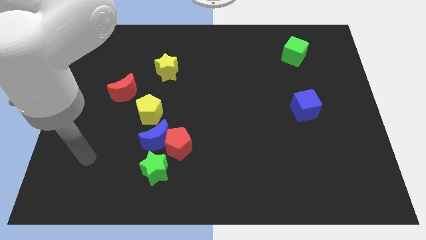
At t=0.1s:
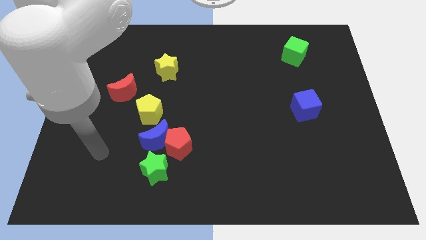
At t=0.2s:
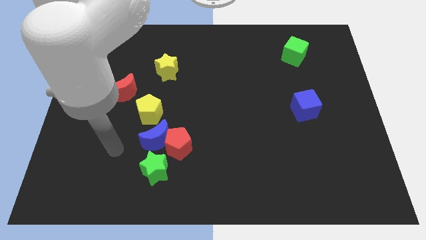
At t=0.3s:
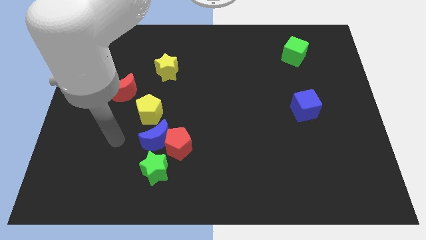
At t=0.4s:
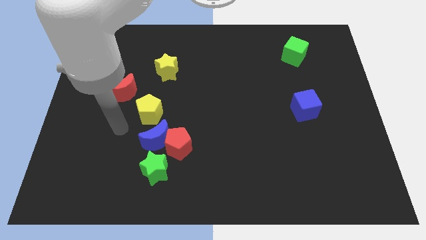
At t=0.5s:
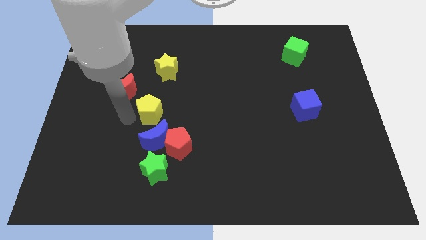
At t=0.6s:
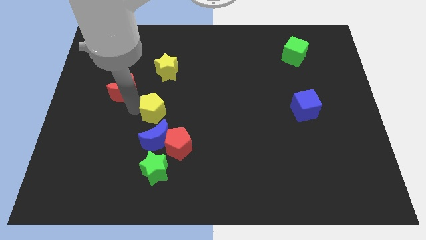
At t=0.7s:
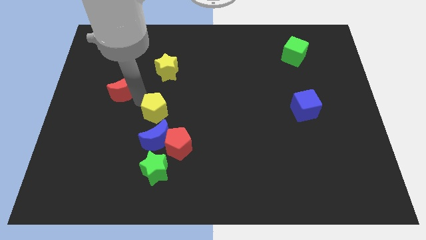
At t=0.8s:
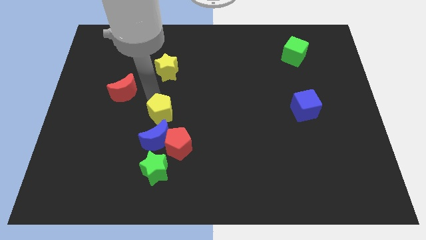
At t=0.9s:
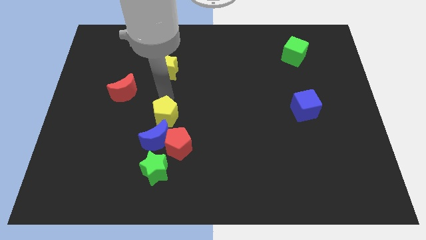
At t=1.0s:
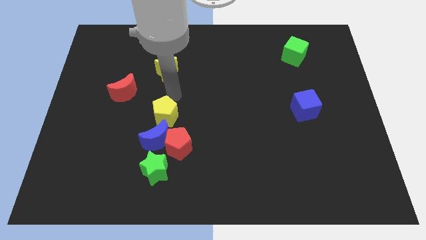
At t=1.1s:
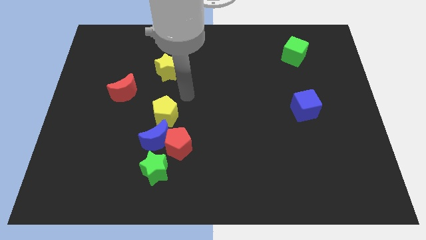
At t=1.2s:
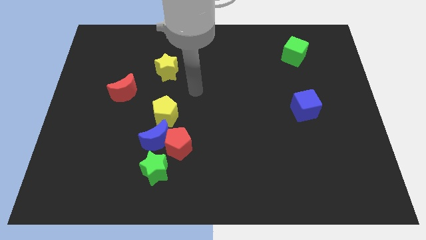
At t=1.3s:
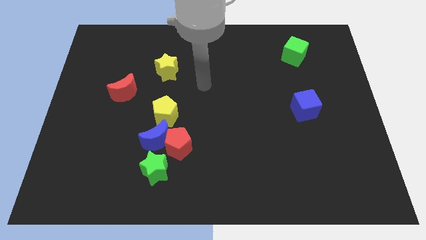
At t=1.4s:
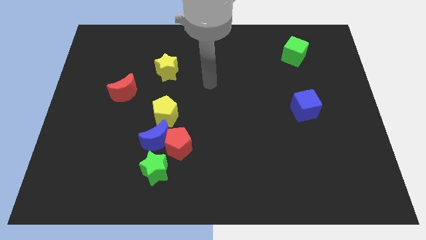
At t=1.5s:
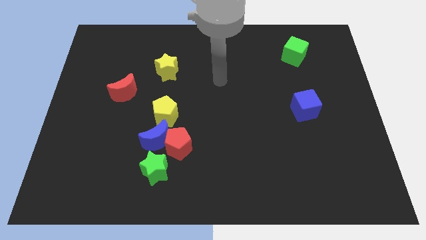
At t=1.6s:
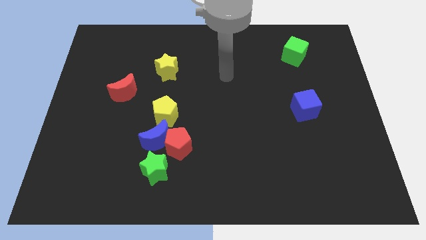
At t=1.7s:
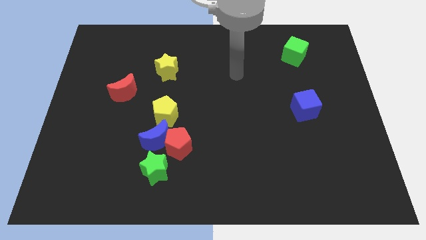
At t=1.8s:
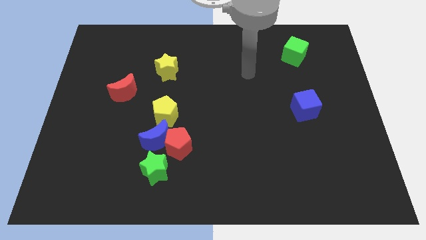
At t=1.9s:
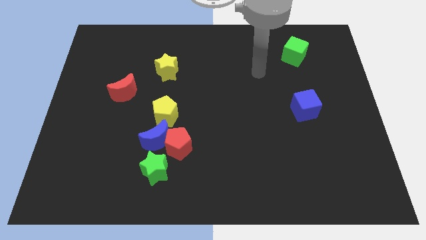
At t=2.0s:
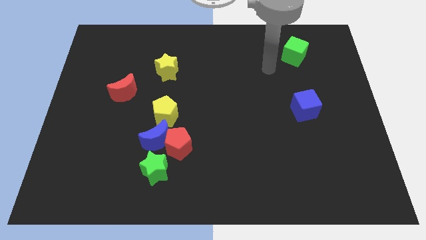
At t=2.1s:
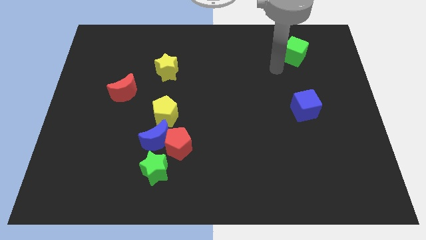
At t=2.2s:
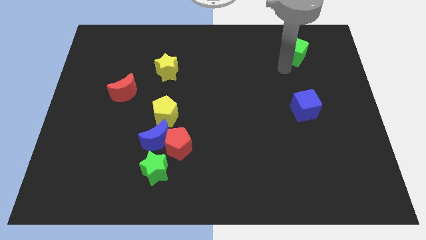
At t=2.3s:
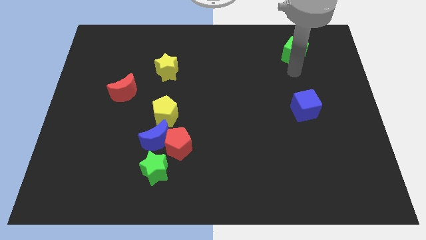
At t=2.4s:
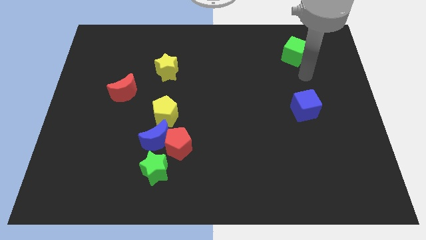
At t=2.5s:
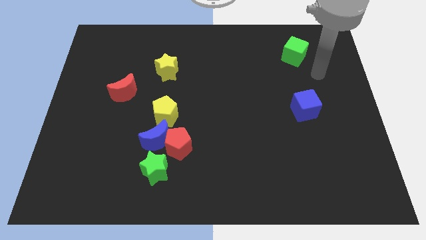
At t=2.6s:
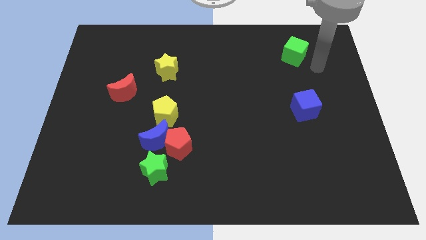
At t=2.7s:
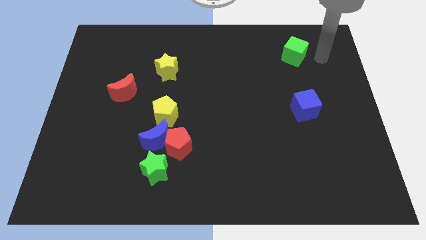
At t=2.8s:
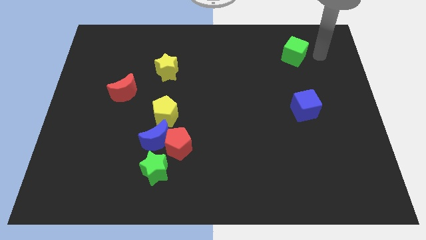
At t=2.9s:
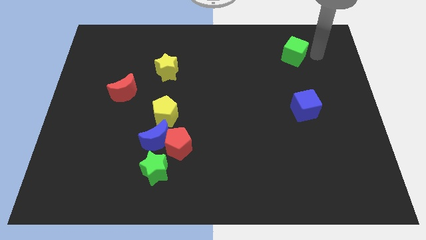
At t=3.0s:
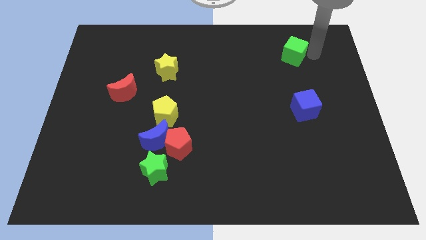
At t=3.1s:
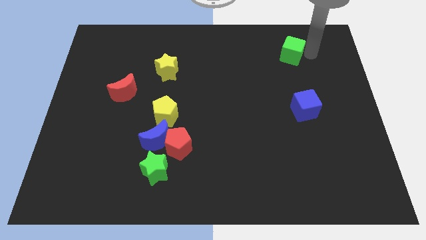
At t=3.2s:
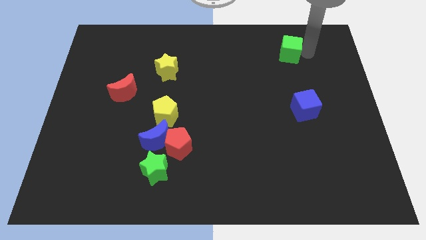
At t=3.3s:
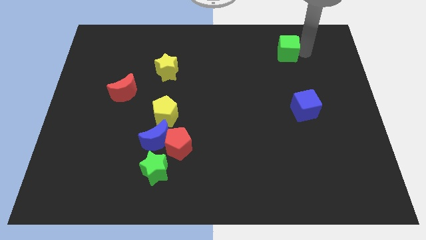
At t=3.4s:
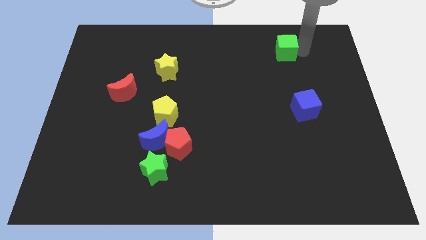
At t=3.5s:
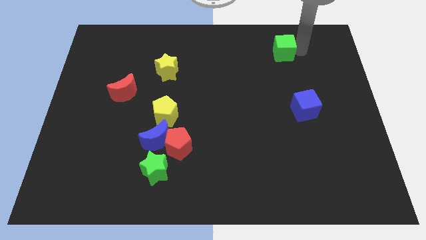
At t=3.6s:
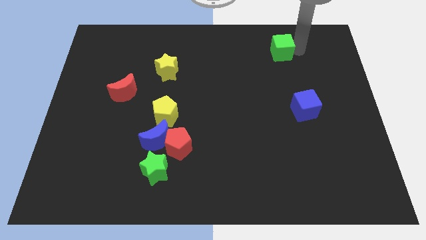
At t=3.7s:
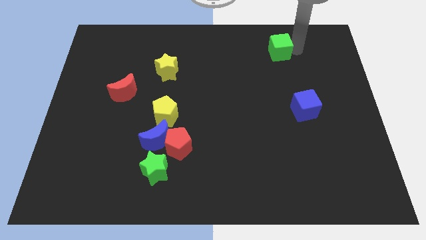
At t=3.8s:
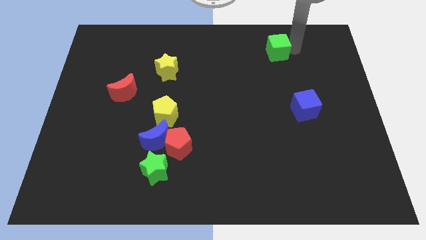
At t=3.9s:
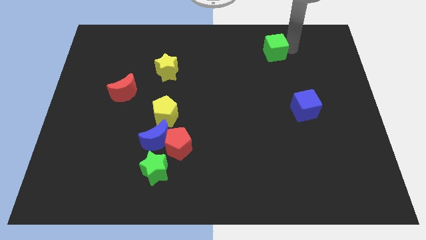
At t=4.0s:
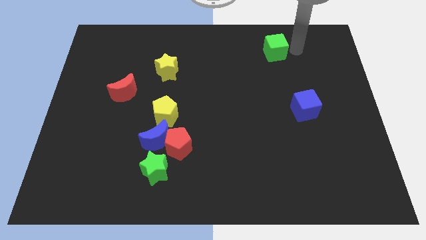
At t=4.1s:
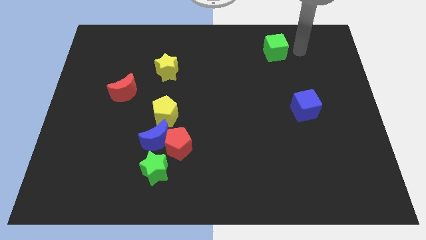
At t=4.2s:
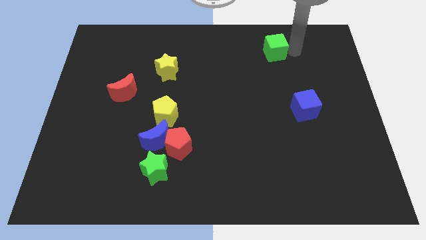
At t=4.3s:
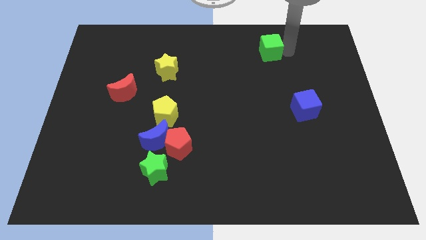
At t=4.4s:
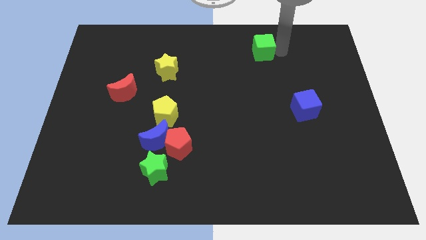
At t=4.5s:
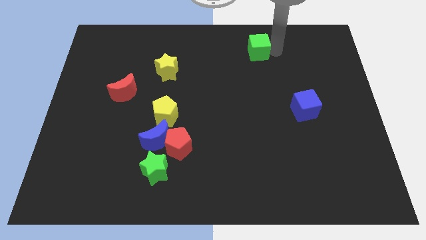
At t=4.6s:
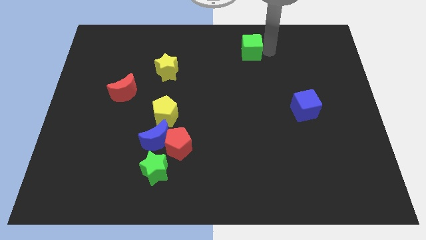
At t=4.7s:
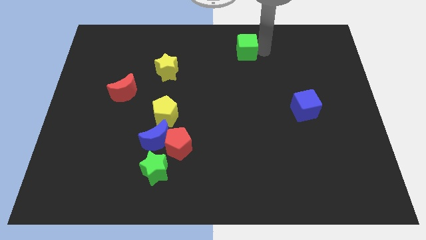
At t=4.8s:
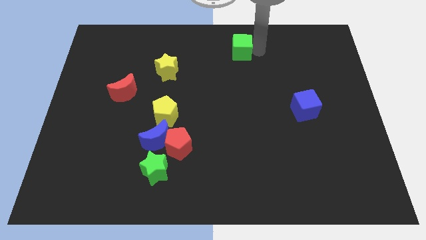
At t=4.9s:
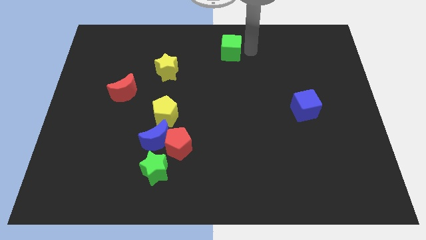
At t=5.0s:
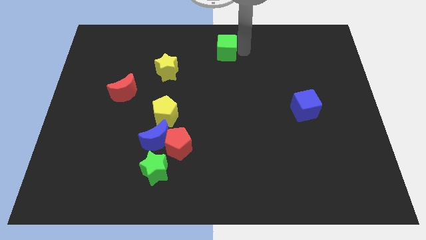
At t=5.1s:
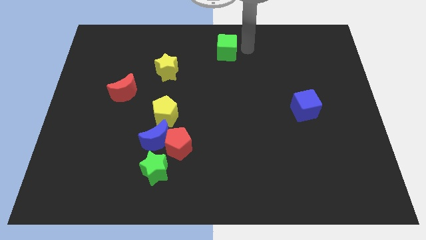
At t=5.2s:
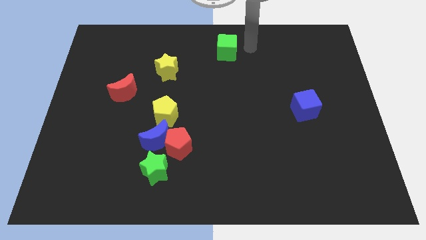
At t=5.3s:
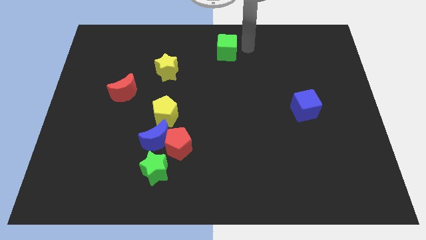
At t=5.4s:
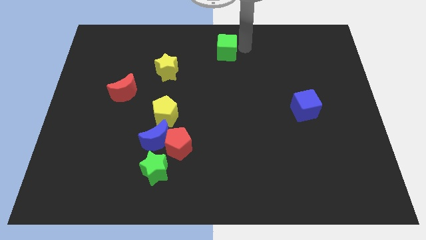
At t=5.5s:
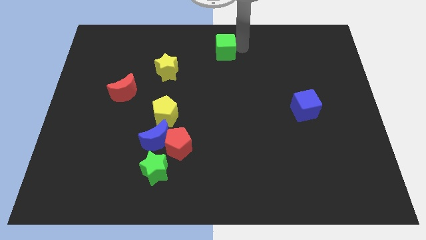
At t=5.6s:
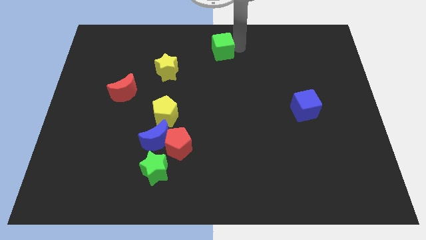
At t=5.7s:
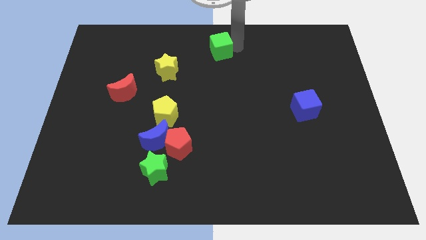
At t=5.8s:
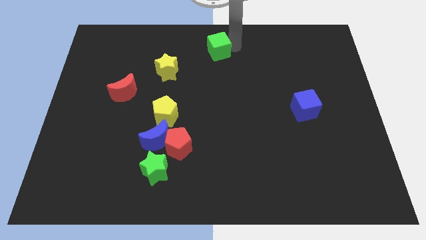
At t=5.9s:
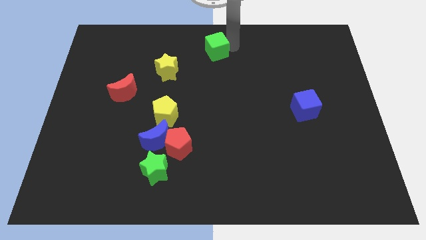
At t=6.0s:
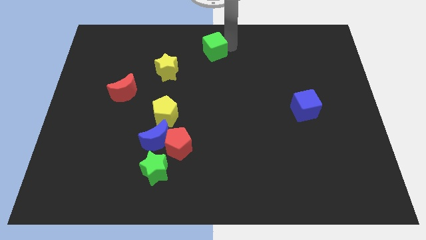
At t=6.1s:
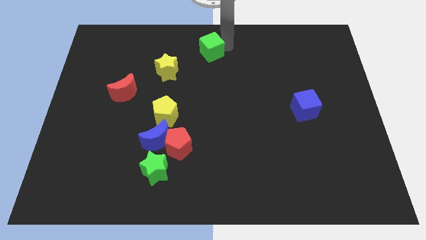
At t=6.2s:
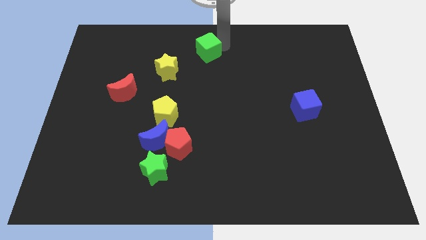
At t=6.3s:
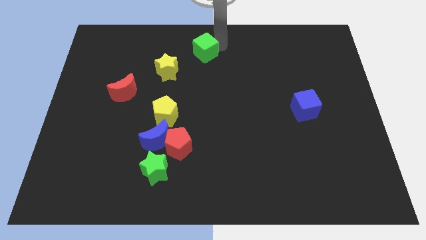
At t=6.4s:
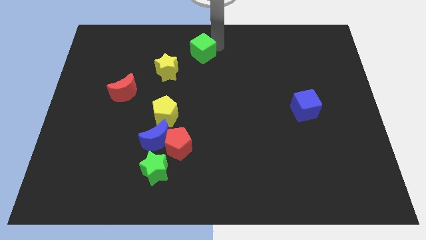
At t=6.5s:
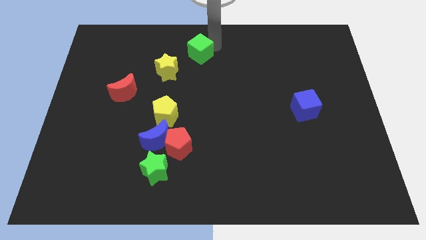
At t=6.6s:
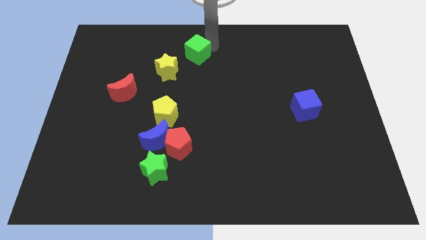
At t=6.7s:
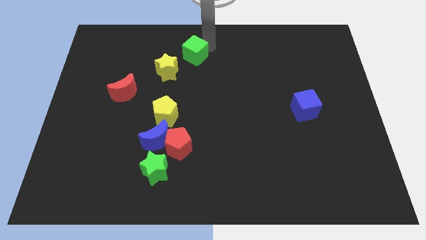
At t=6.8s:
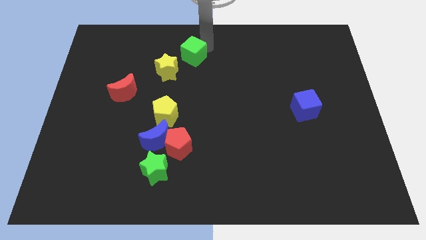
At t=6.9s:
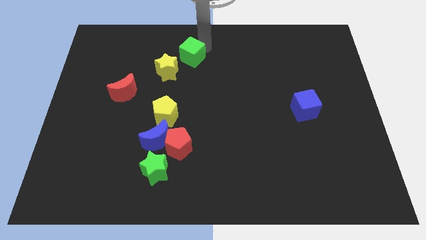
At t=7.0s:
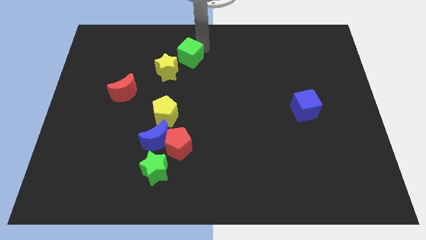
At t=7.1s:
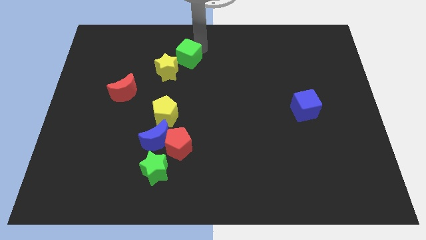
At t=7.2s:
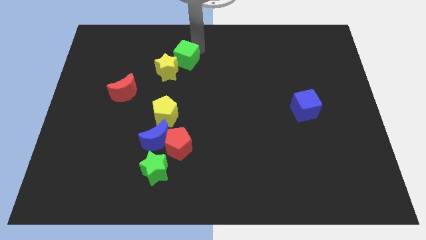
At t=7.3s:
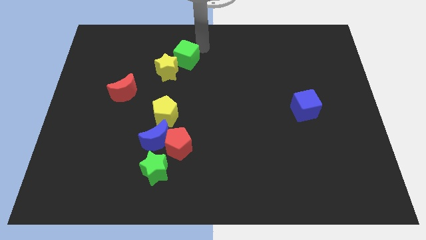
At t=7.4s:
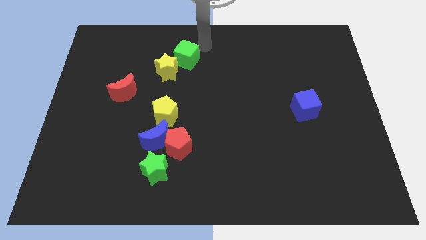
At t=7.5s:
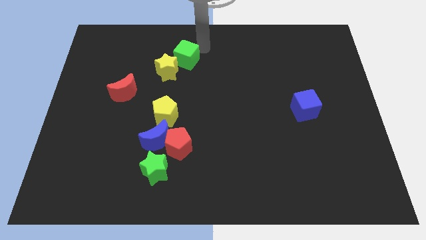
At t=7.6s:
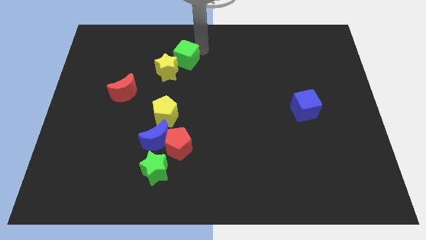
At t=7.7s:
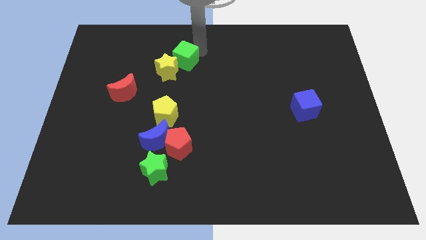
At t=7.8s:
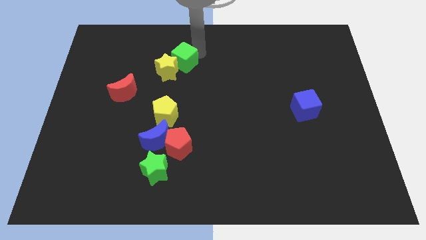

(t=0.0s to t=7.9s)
push the green cube close to the yellow star
